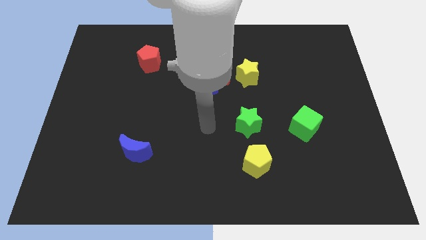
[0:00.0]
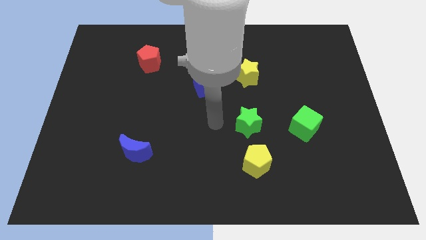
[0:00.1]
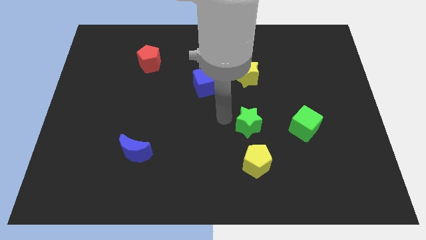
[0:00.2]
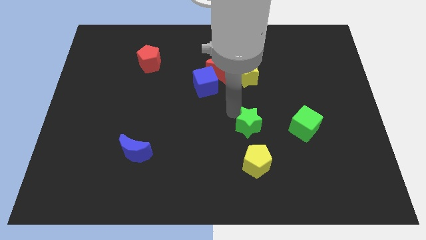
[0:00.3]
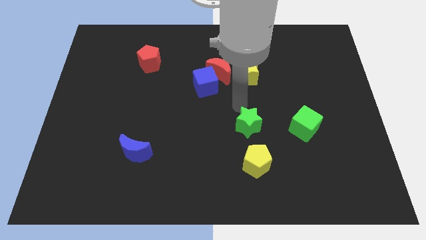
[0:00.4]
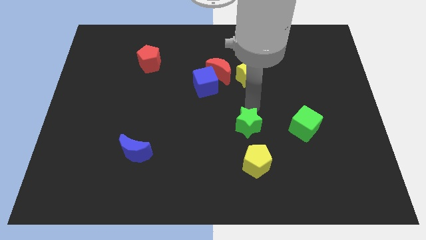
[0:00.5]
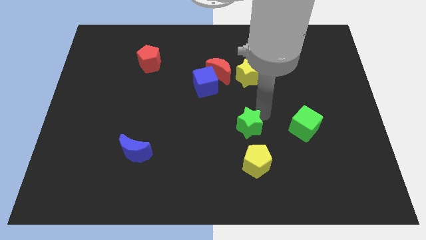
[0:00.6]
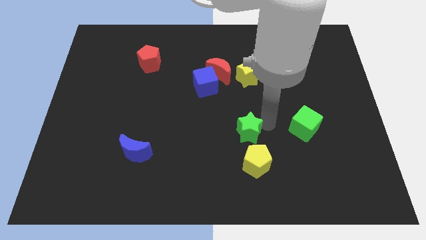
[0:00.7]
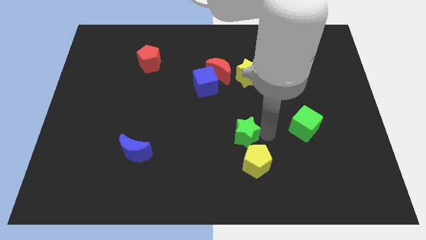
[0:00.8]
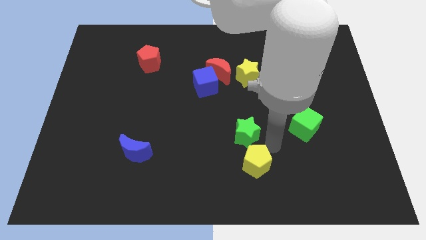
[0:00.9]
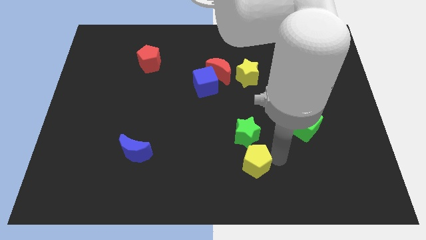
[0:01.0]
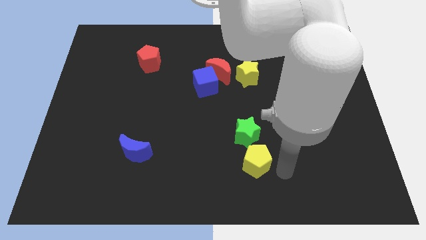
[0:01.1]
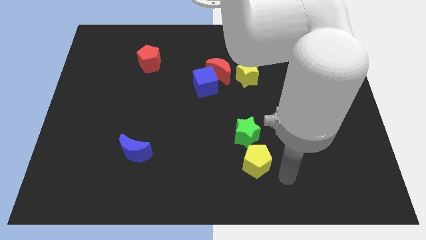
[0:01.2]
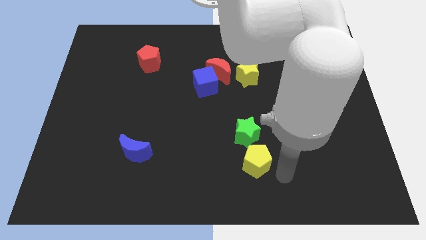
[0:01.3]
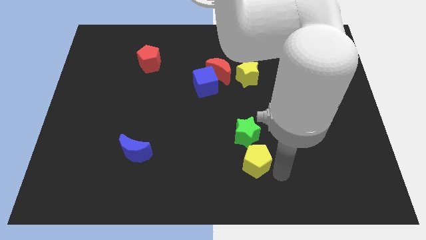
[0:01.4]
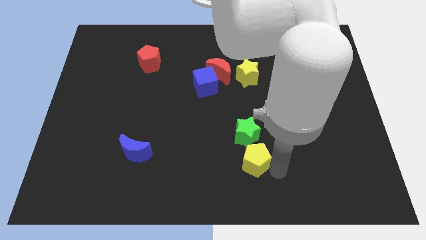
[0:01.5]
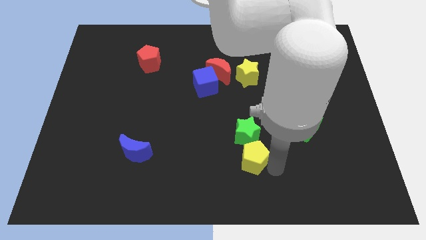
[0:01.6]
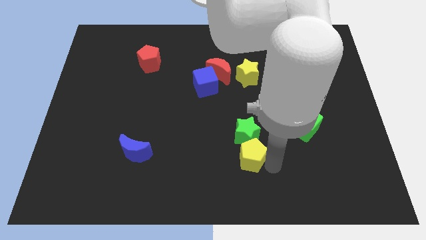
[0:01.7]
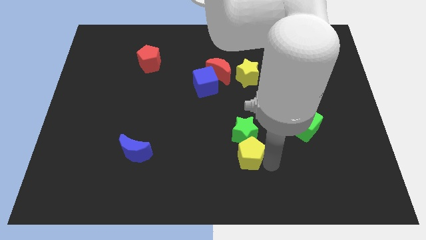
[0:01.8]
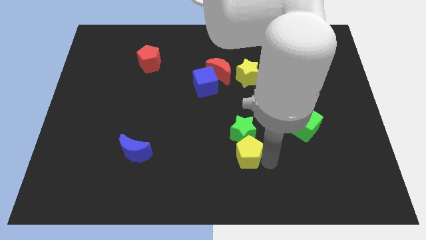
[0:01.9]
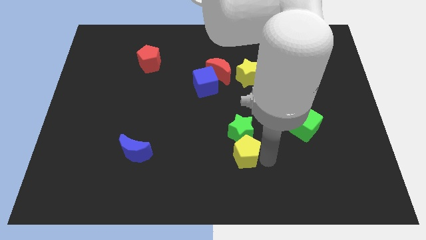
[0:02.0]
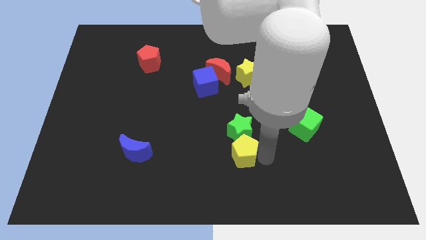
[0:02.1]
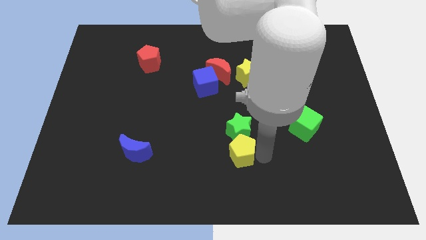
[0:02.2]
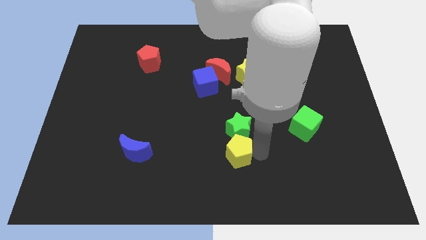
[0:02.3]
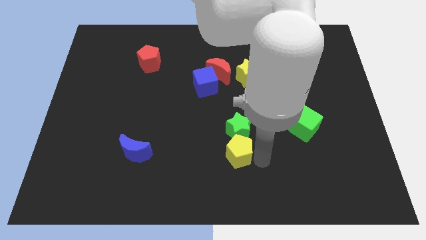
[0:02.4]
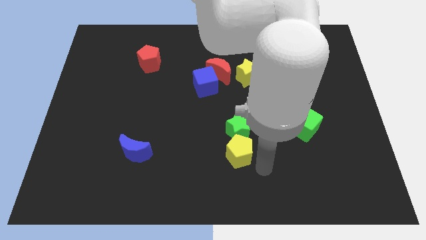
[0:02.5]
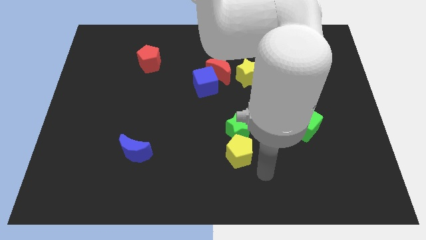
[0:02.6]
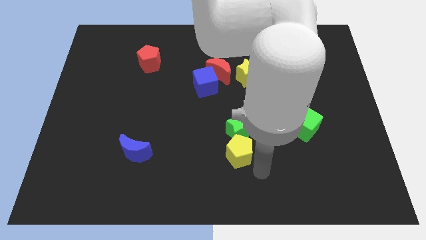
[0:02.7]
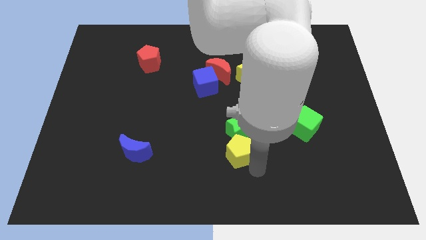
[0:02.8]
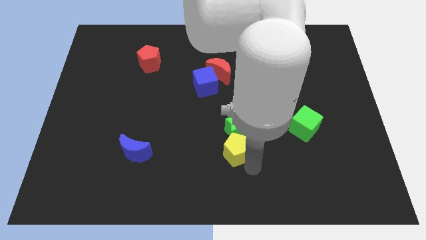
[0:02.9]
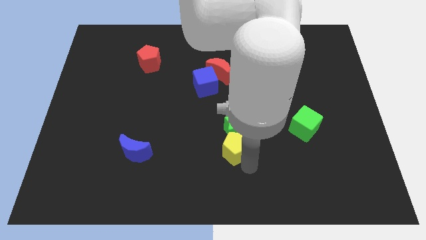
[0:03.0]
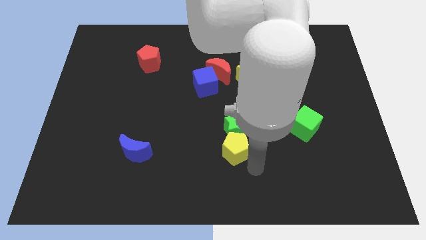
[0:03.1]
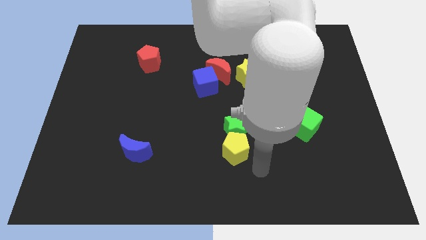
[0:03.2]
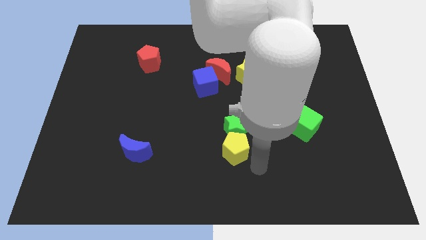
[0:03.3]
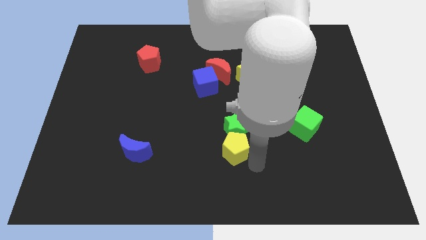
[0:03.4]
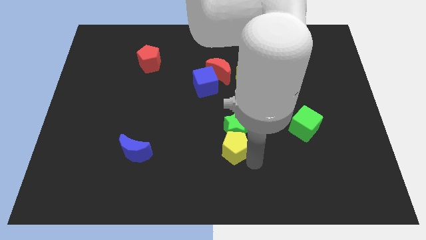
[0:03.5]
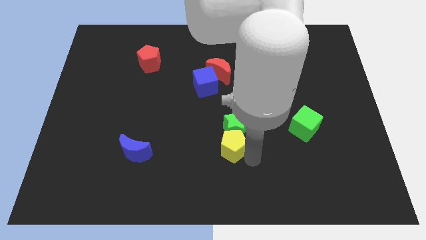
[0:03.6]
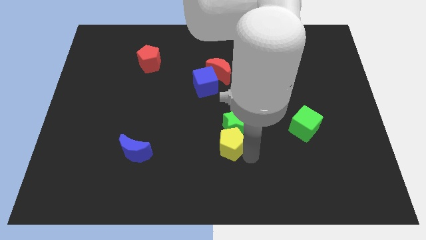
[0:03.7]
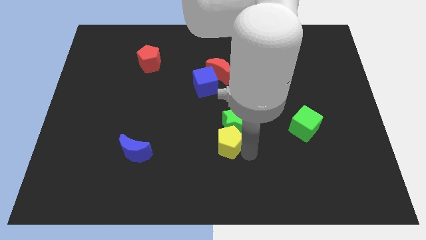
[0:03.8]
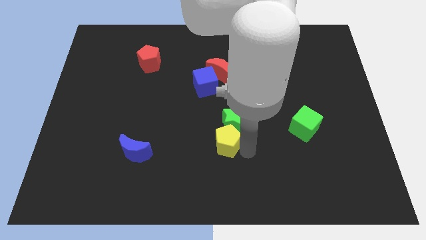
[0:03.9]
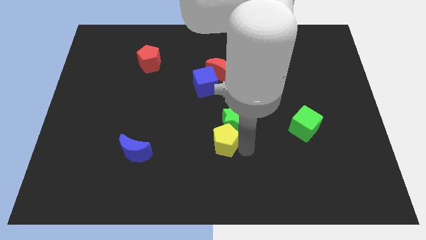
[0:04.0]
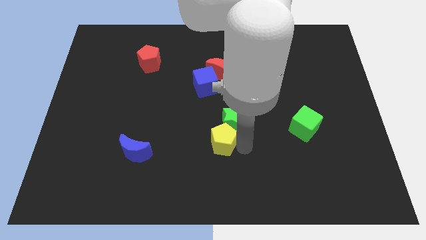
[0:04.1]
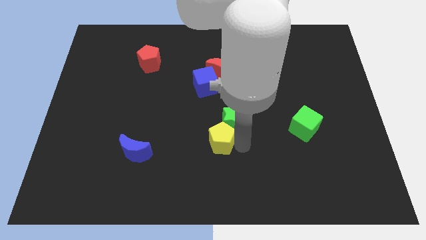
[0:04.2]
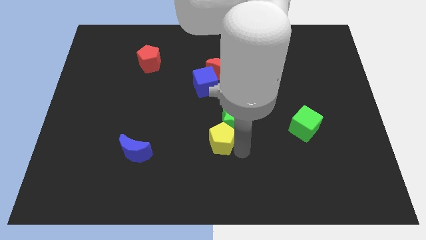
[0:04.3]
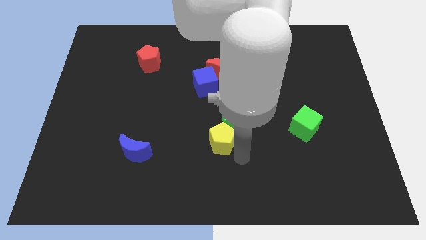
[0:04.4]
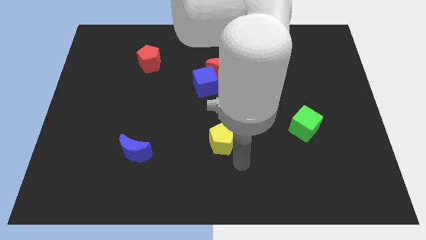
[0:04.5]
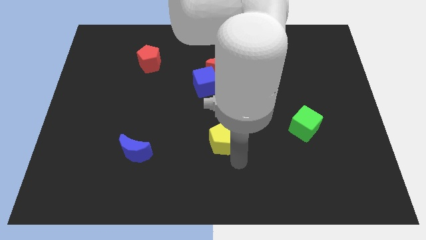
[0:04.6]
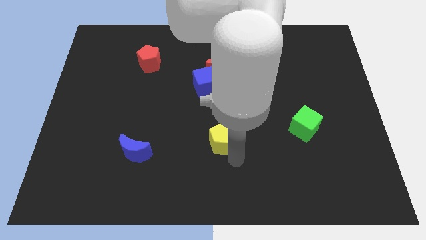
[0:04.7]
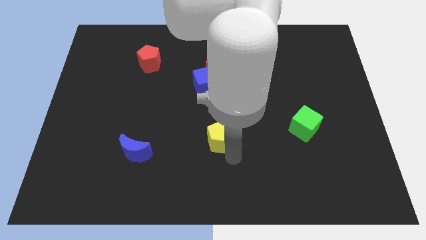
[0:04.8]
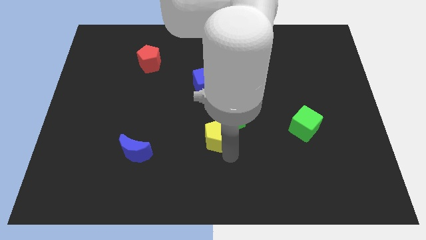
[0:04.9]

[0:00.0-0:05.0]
push the yellow pentagon below the blue cube

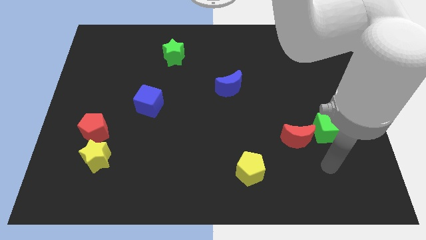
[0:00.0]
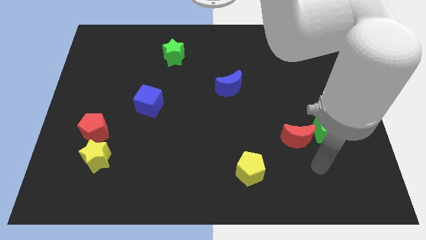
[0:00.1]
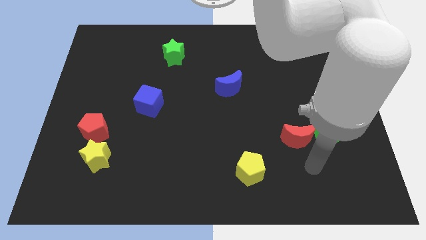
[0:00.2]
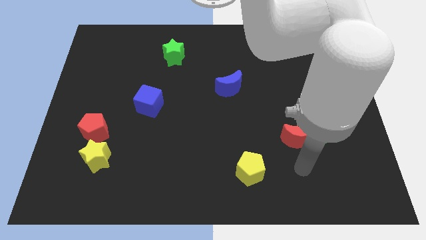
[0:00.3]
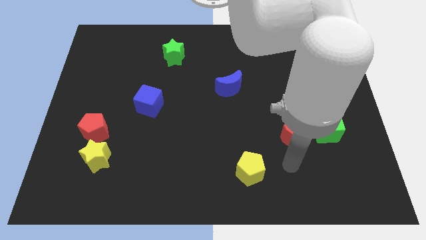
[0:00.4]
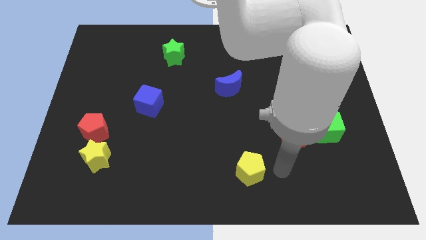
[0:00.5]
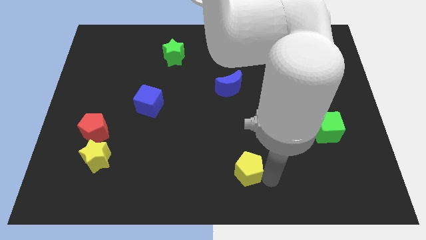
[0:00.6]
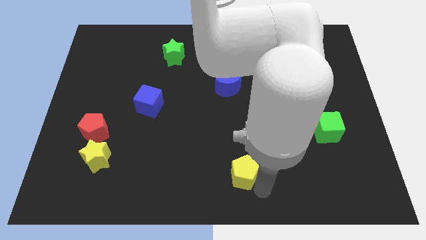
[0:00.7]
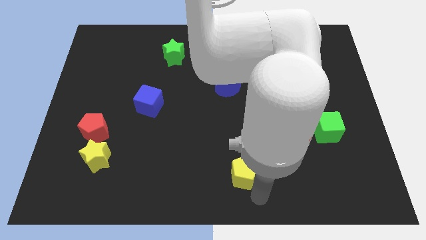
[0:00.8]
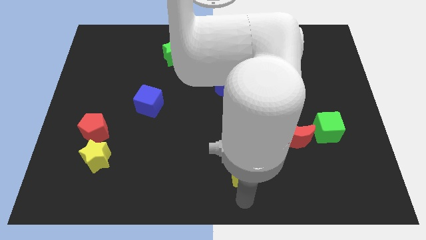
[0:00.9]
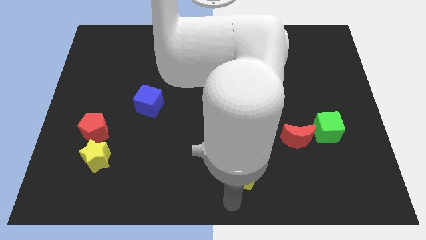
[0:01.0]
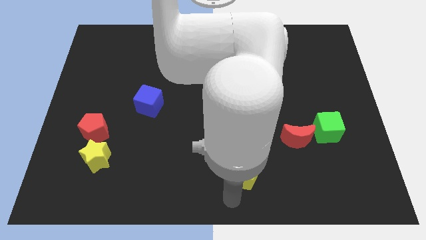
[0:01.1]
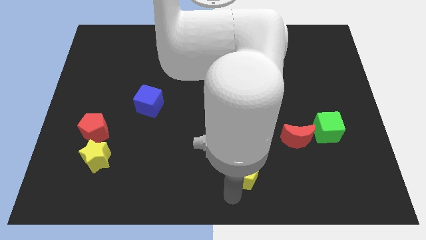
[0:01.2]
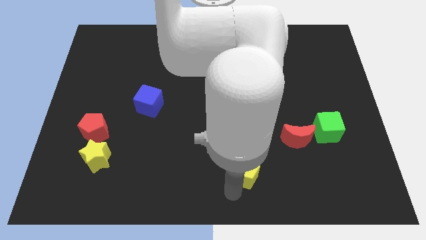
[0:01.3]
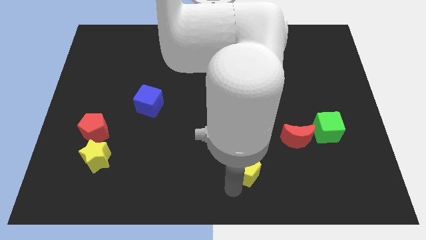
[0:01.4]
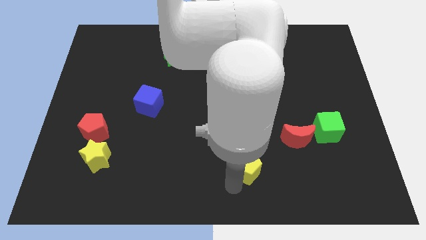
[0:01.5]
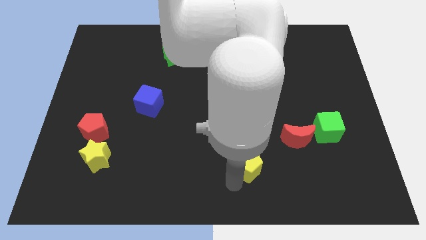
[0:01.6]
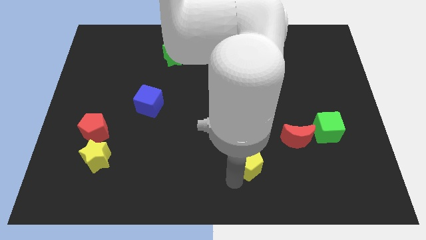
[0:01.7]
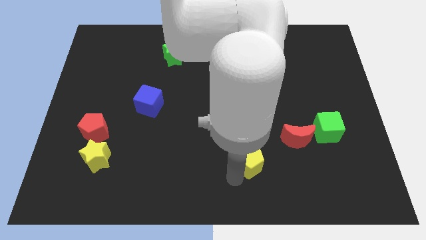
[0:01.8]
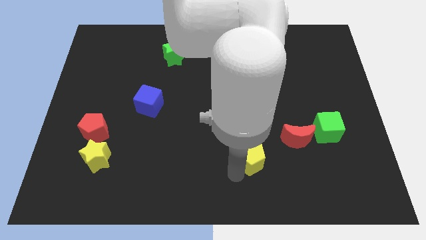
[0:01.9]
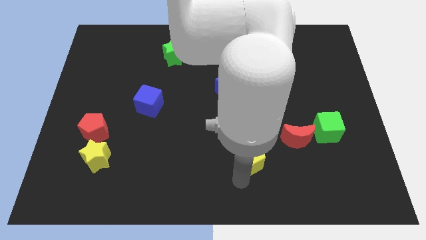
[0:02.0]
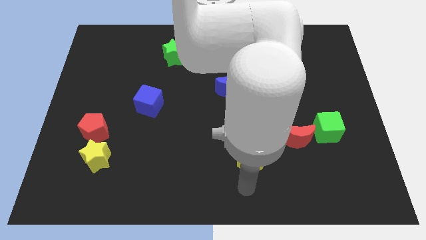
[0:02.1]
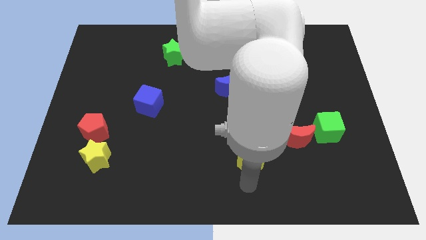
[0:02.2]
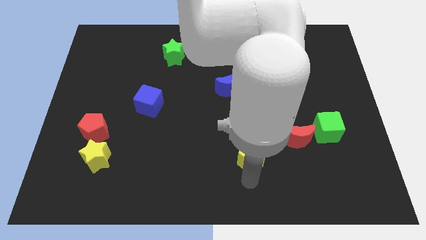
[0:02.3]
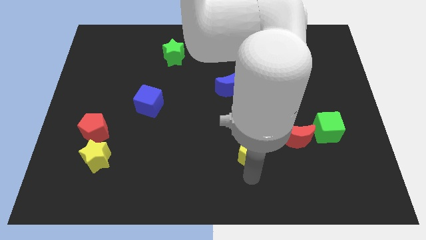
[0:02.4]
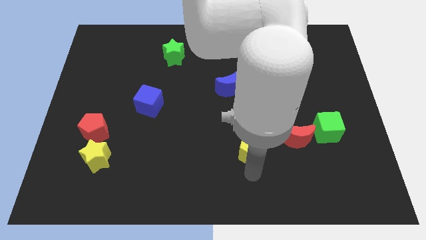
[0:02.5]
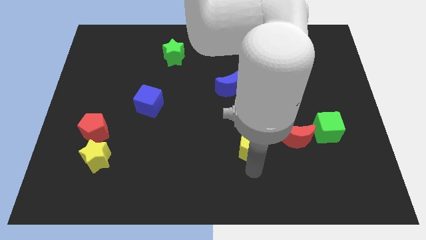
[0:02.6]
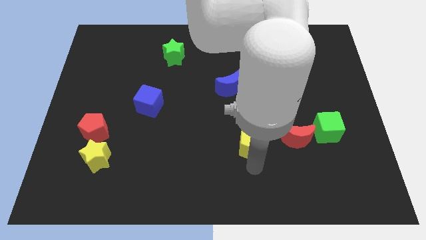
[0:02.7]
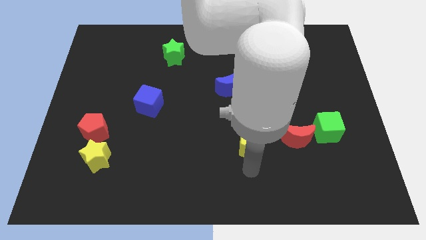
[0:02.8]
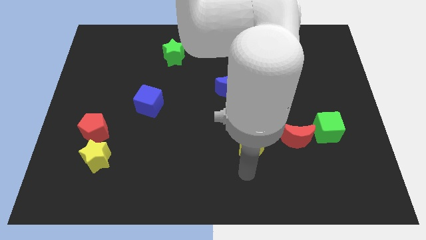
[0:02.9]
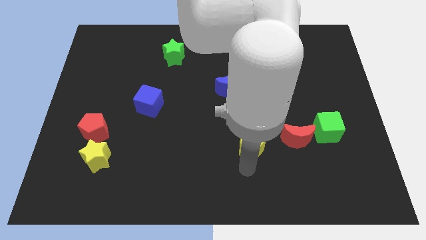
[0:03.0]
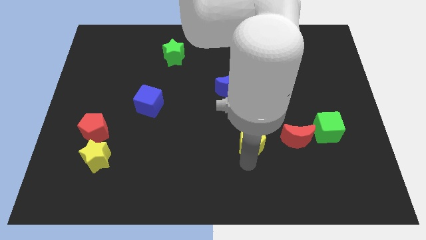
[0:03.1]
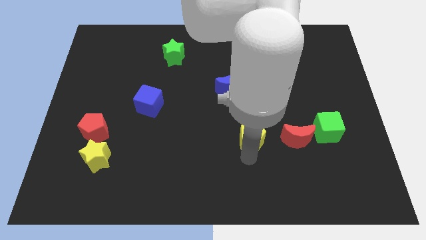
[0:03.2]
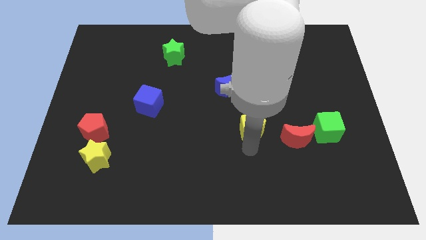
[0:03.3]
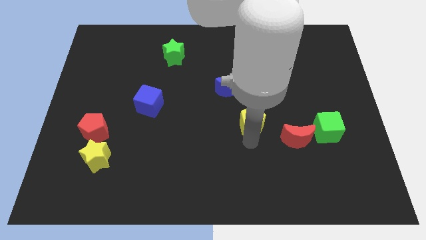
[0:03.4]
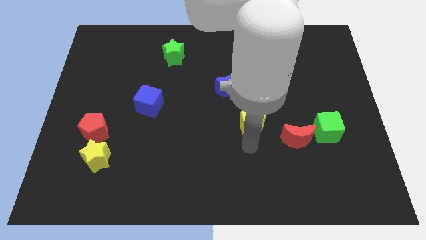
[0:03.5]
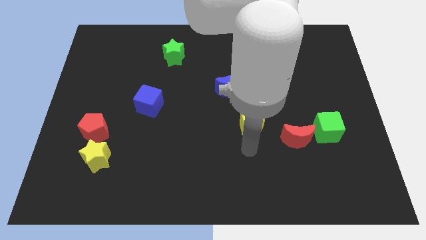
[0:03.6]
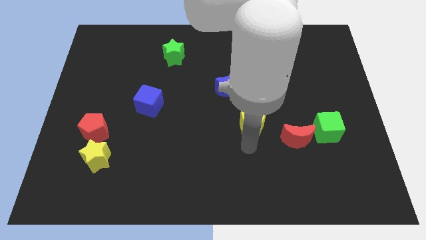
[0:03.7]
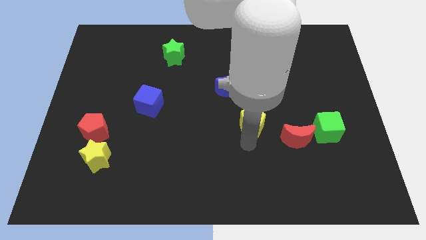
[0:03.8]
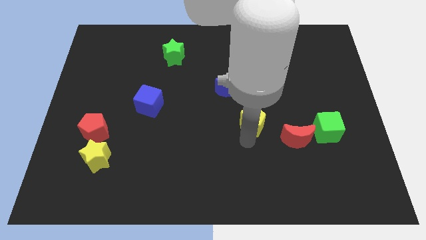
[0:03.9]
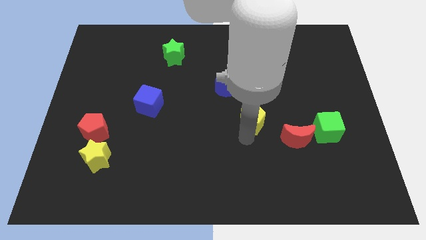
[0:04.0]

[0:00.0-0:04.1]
slide the yellow pentagon to the bottom right side of the blue moon
